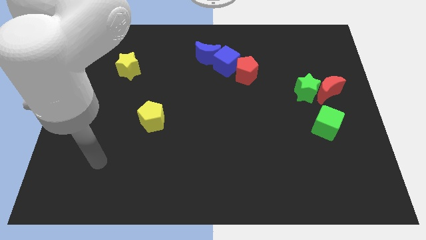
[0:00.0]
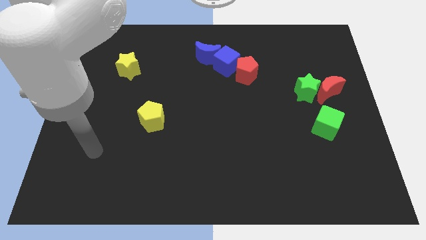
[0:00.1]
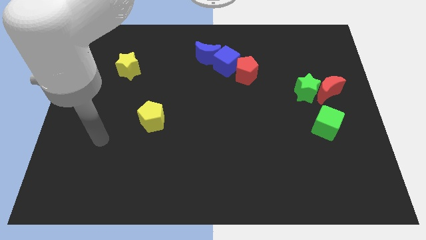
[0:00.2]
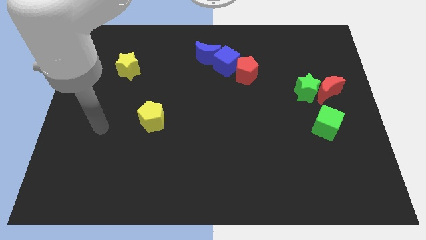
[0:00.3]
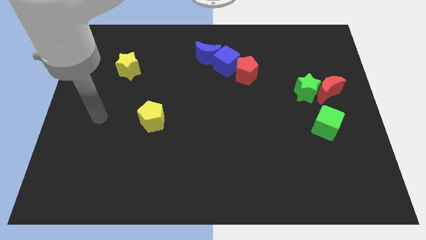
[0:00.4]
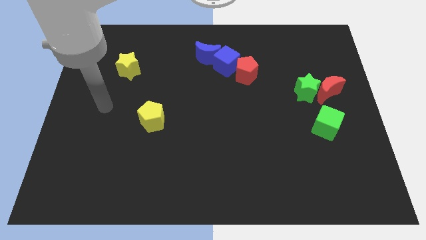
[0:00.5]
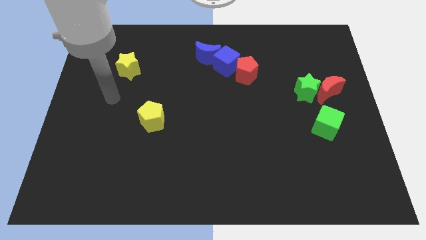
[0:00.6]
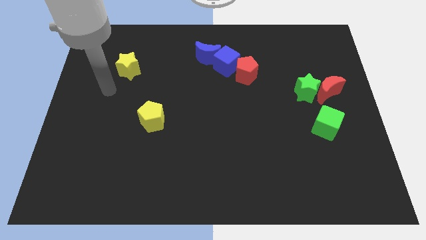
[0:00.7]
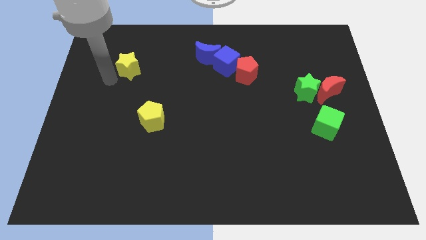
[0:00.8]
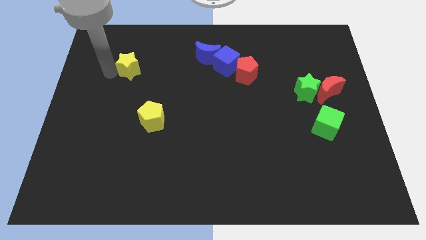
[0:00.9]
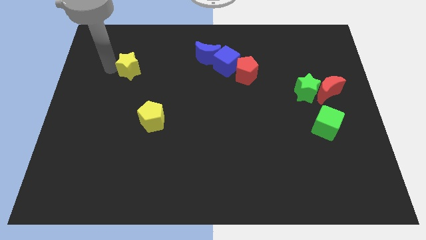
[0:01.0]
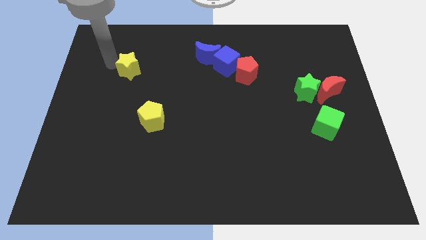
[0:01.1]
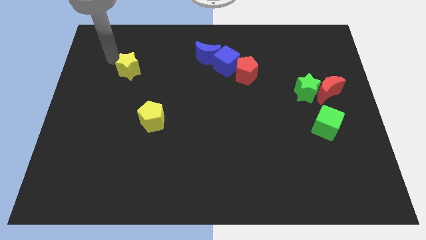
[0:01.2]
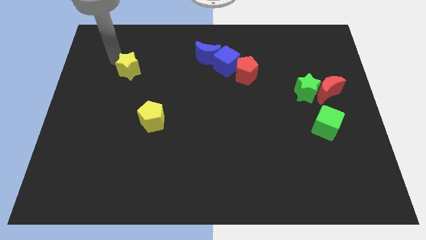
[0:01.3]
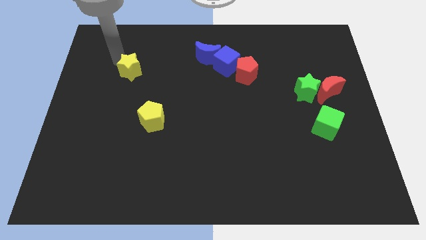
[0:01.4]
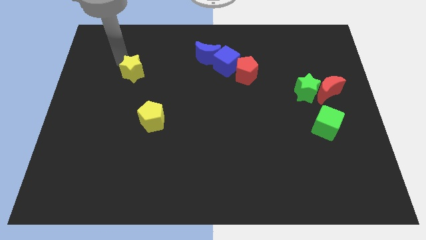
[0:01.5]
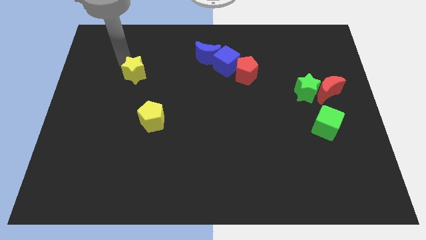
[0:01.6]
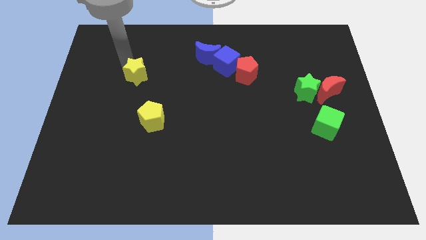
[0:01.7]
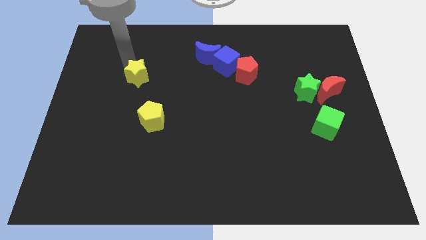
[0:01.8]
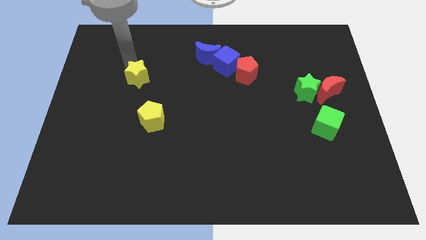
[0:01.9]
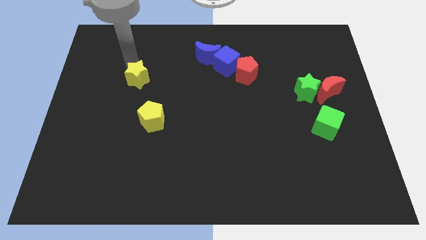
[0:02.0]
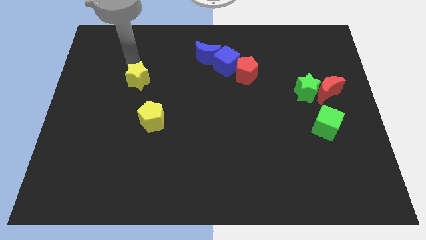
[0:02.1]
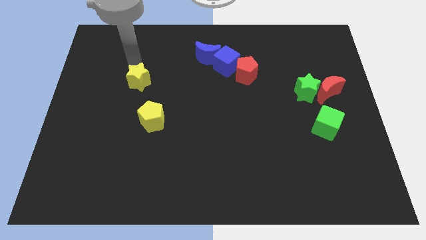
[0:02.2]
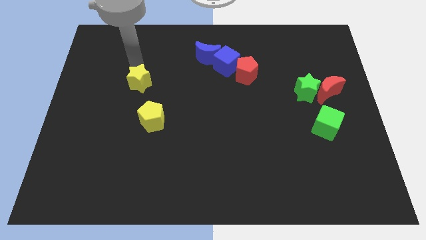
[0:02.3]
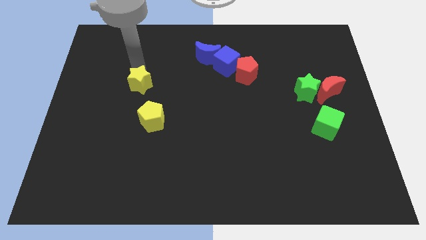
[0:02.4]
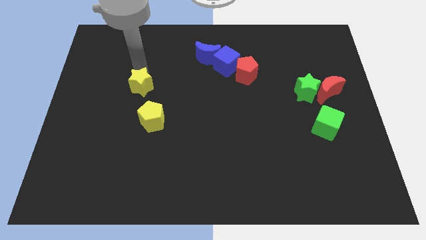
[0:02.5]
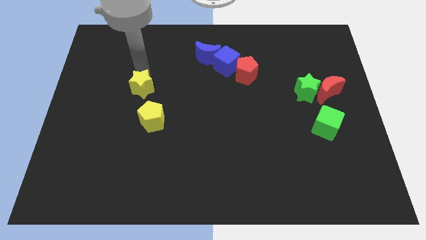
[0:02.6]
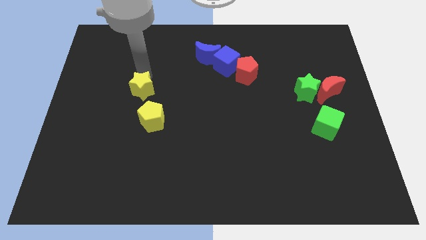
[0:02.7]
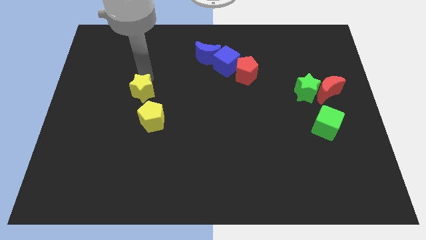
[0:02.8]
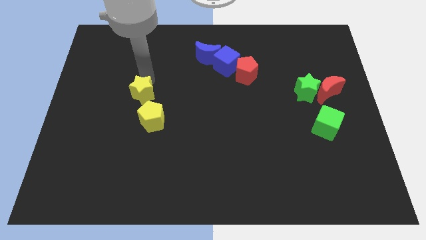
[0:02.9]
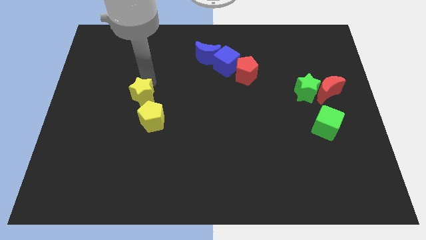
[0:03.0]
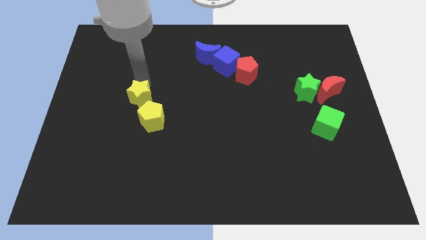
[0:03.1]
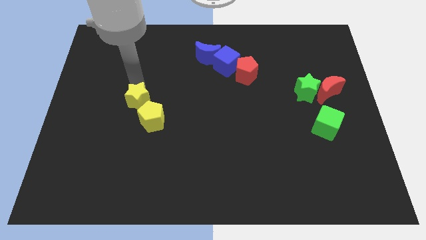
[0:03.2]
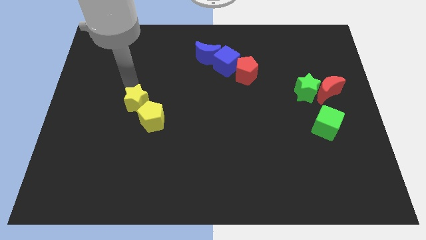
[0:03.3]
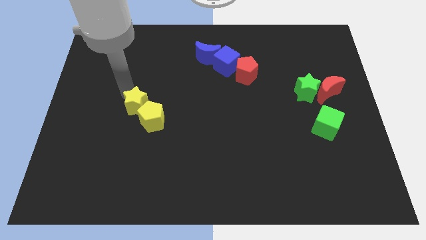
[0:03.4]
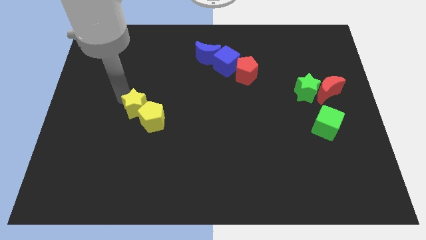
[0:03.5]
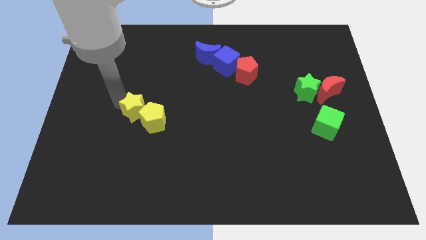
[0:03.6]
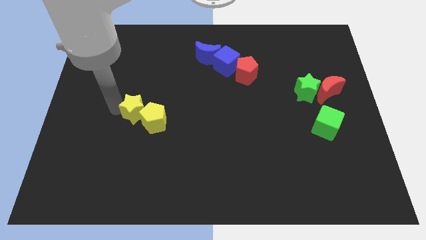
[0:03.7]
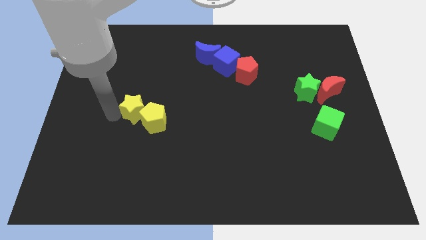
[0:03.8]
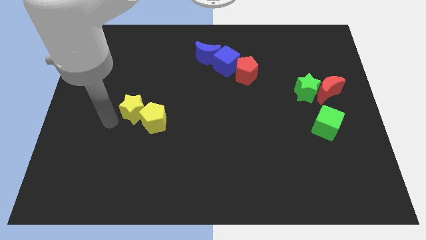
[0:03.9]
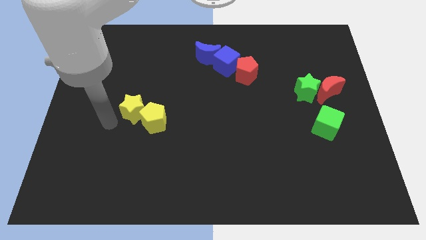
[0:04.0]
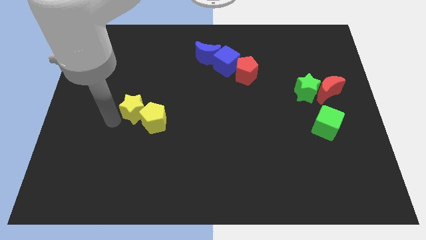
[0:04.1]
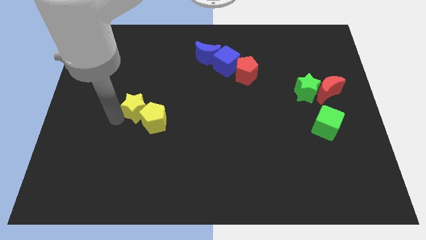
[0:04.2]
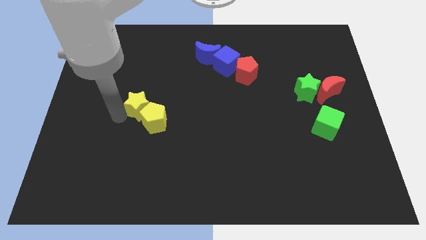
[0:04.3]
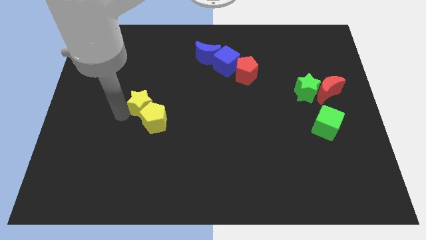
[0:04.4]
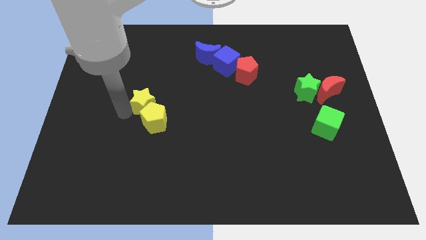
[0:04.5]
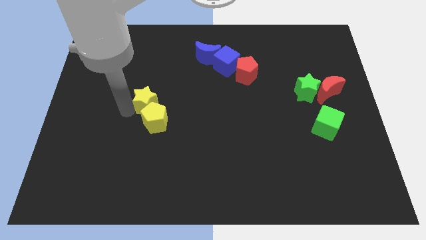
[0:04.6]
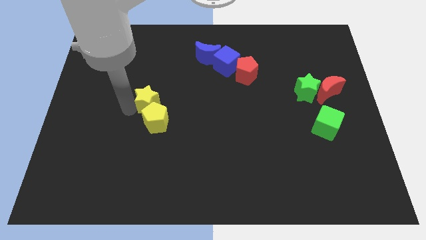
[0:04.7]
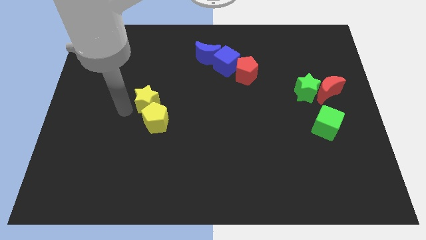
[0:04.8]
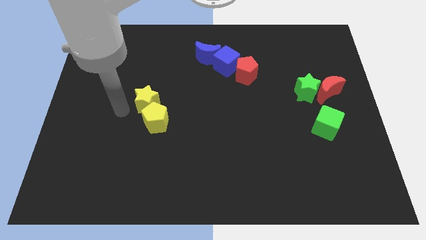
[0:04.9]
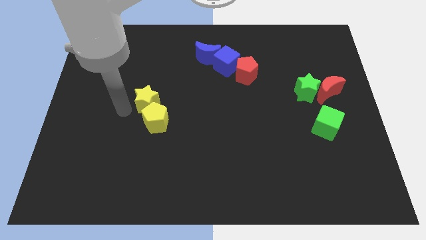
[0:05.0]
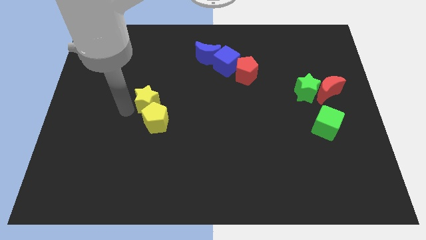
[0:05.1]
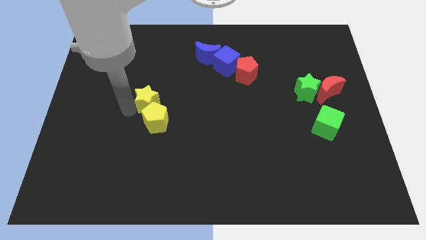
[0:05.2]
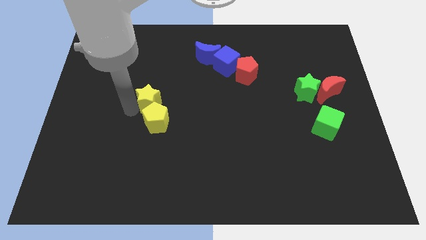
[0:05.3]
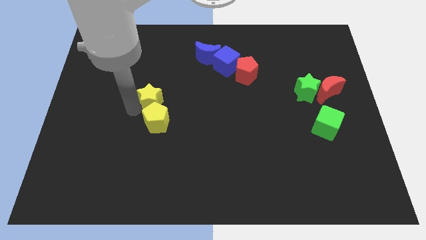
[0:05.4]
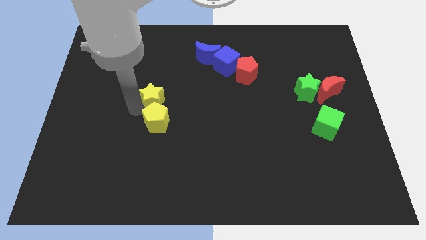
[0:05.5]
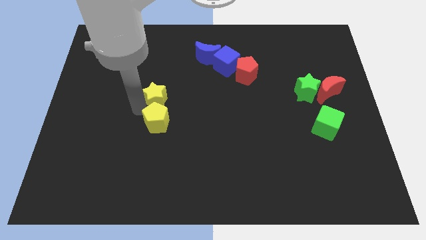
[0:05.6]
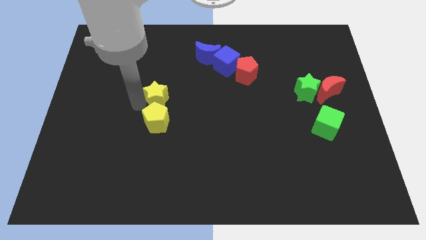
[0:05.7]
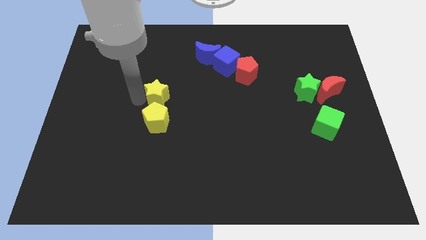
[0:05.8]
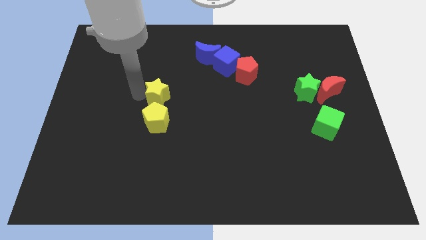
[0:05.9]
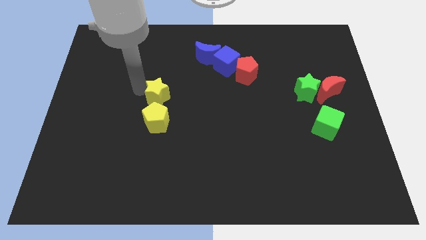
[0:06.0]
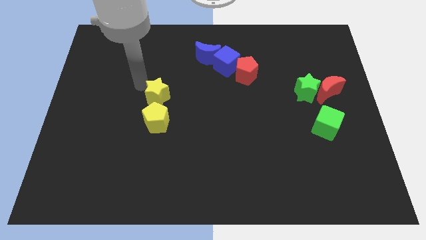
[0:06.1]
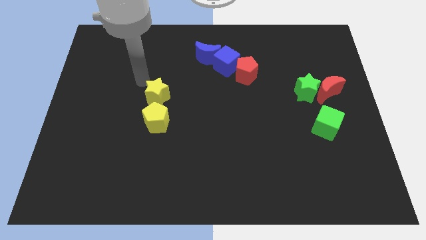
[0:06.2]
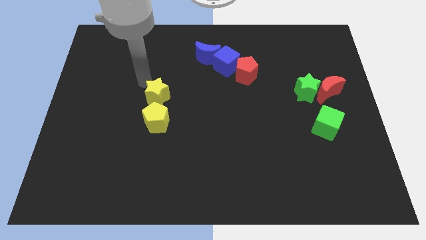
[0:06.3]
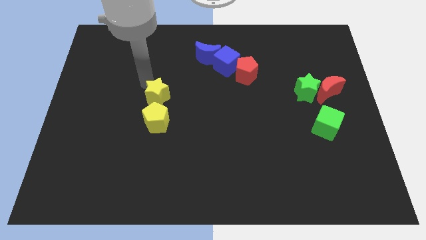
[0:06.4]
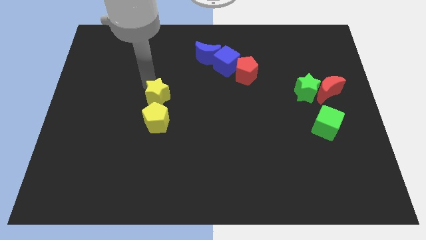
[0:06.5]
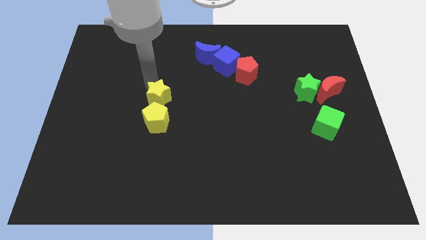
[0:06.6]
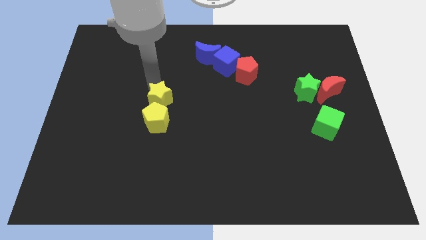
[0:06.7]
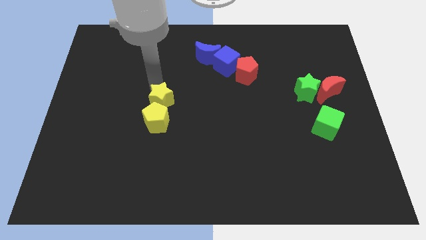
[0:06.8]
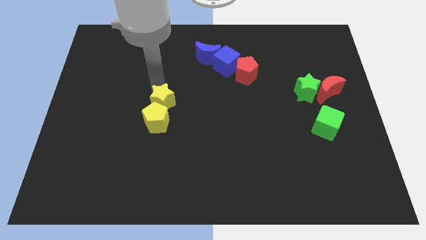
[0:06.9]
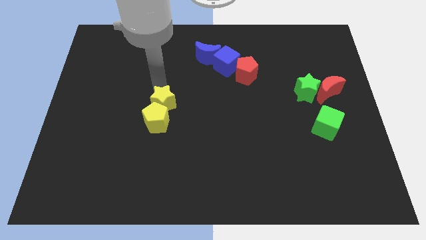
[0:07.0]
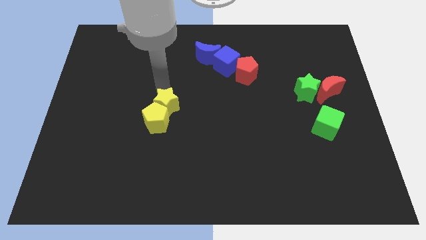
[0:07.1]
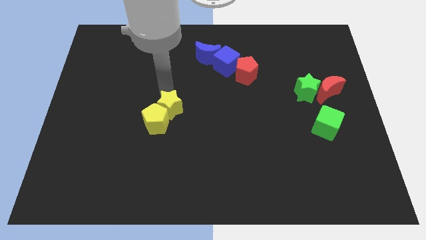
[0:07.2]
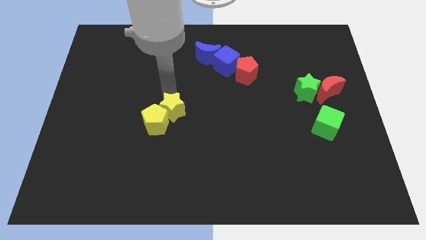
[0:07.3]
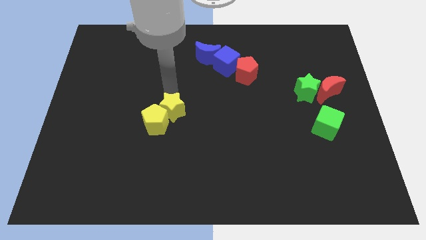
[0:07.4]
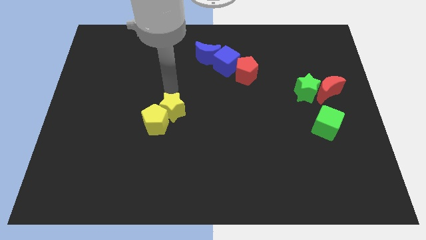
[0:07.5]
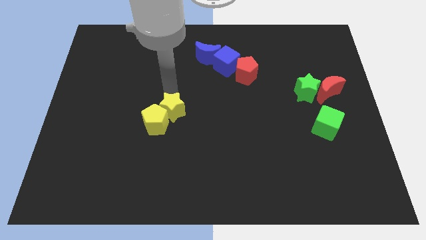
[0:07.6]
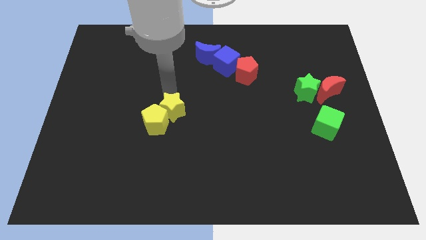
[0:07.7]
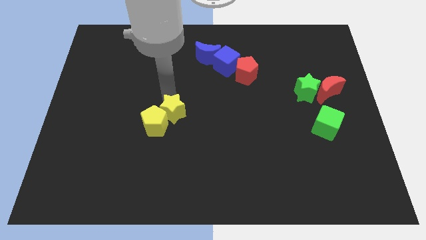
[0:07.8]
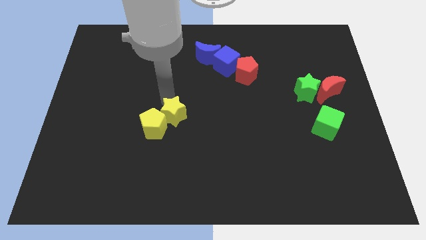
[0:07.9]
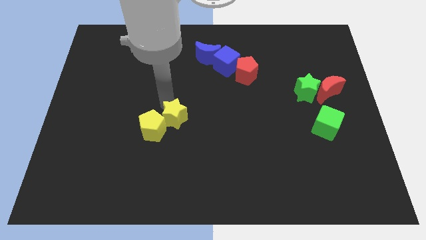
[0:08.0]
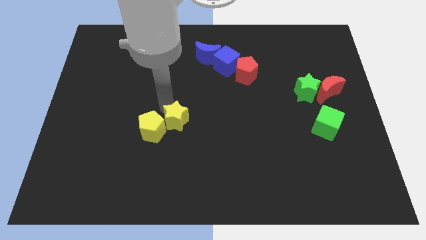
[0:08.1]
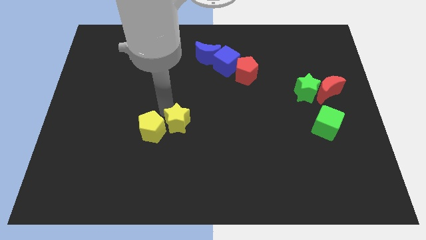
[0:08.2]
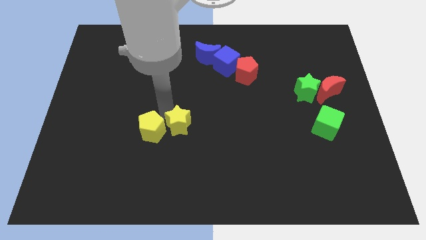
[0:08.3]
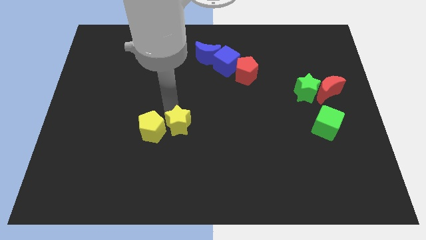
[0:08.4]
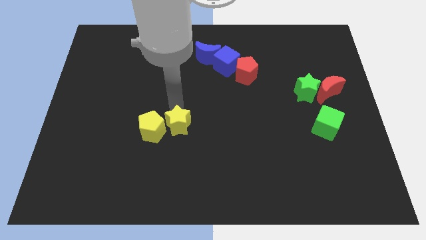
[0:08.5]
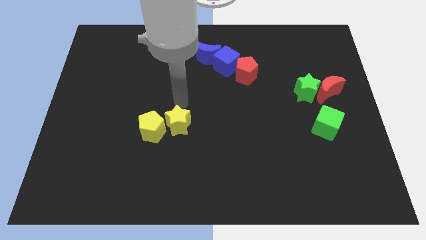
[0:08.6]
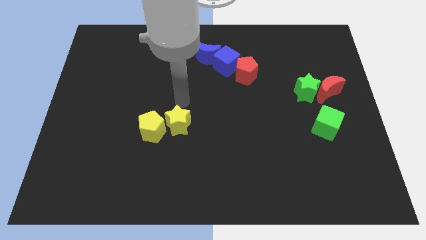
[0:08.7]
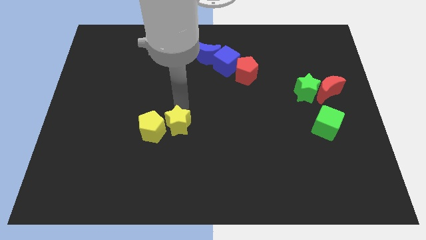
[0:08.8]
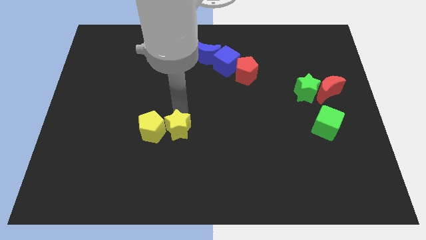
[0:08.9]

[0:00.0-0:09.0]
put the yellow star to the bottom right of the yellow pentagon
